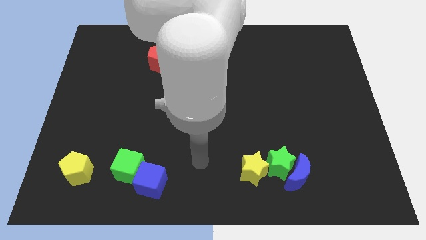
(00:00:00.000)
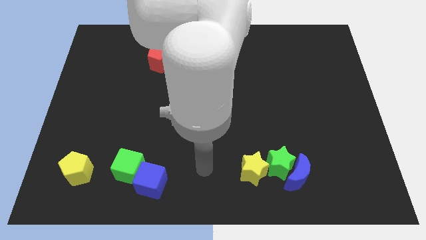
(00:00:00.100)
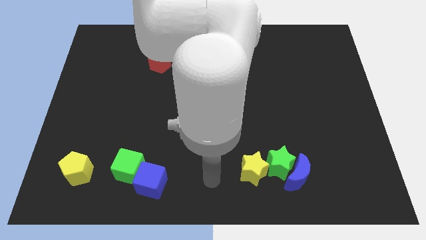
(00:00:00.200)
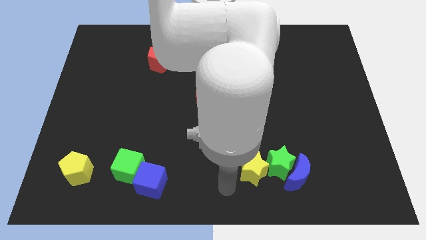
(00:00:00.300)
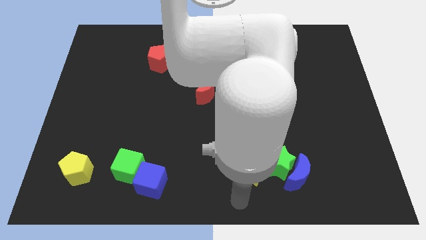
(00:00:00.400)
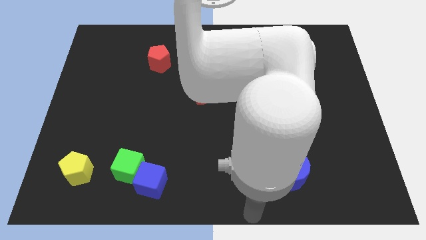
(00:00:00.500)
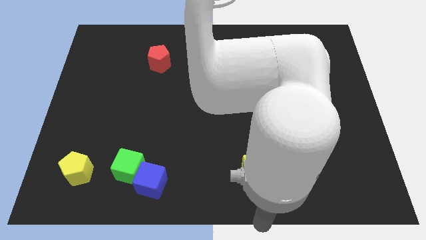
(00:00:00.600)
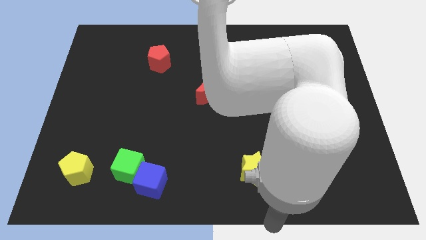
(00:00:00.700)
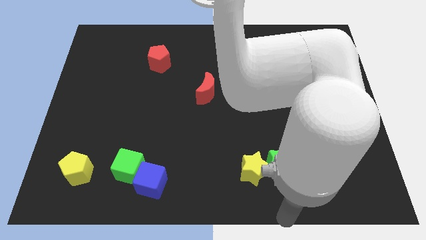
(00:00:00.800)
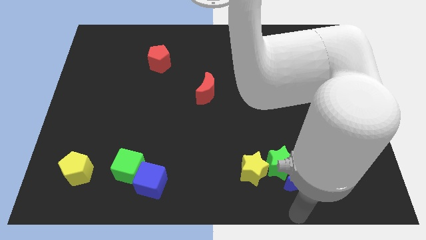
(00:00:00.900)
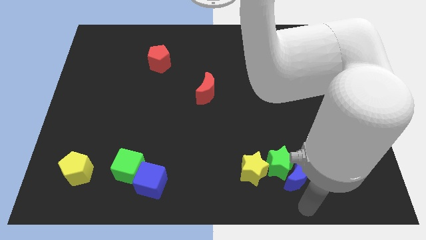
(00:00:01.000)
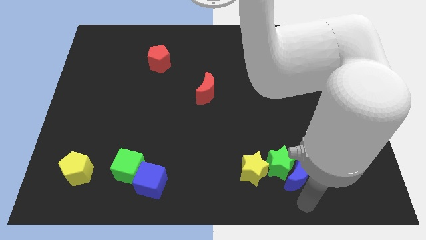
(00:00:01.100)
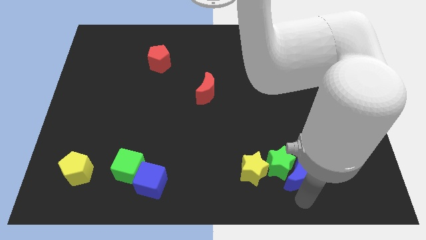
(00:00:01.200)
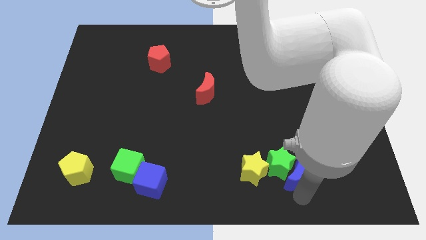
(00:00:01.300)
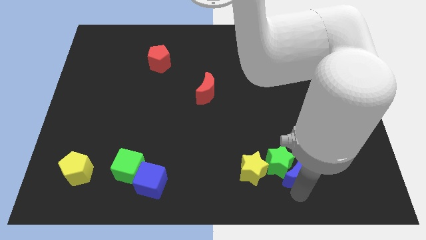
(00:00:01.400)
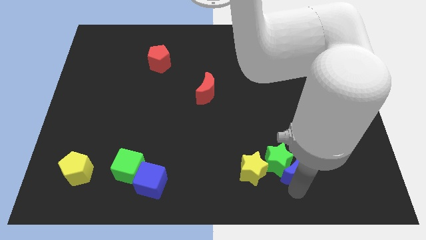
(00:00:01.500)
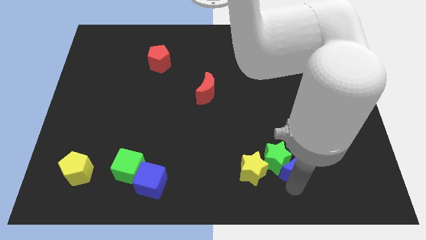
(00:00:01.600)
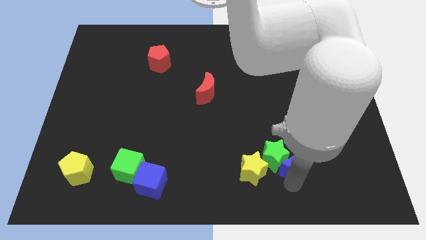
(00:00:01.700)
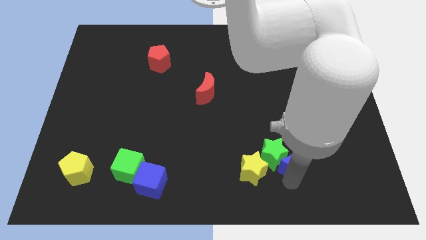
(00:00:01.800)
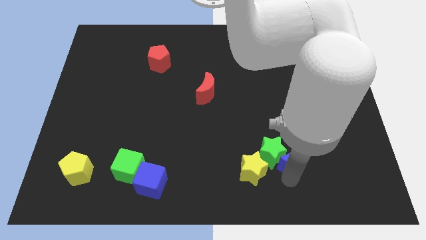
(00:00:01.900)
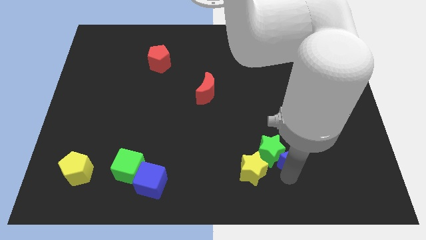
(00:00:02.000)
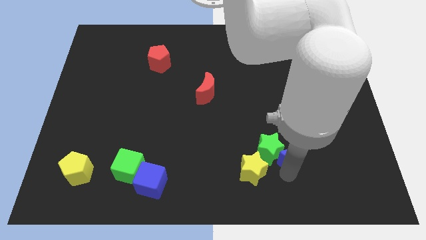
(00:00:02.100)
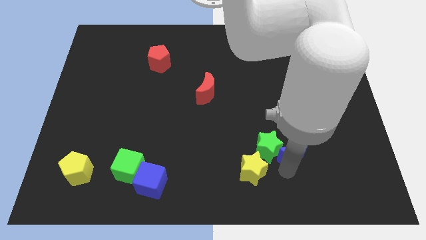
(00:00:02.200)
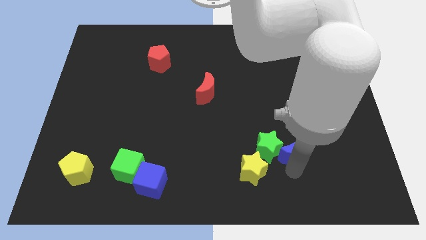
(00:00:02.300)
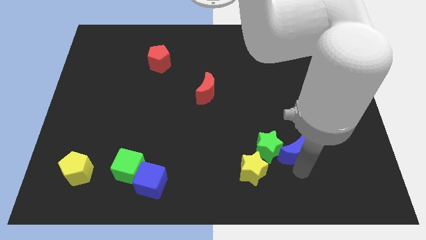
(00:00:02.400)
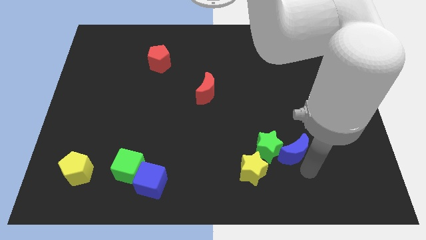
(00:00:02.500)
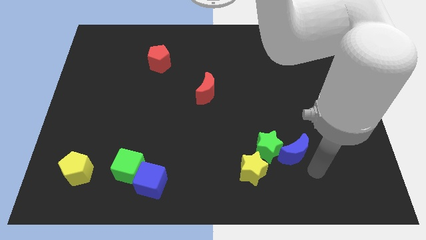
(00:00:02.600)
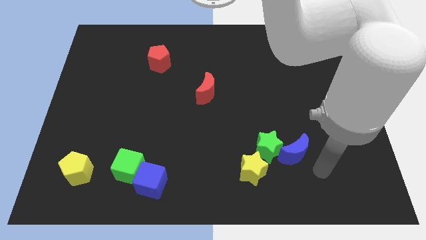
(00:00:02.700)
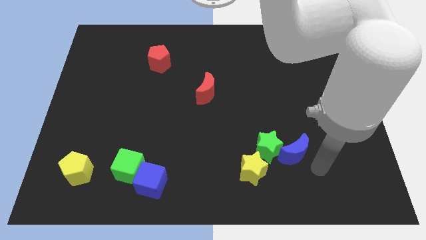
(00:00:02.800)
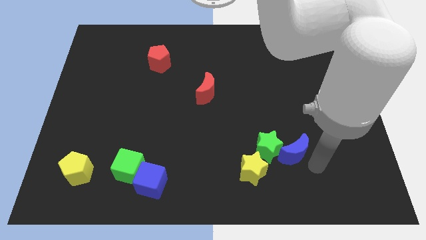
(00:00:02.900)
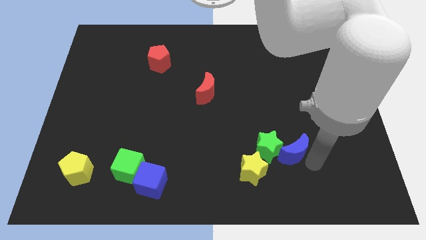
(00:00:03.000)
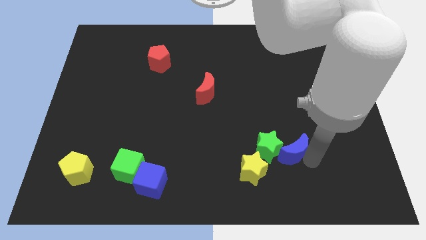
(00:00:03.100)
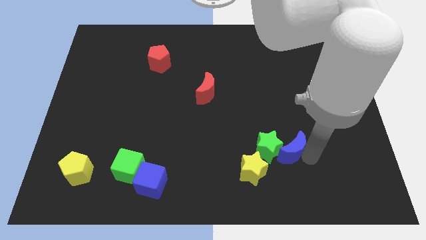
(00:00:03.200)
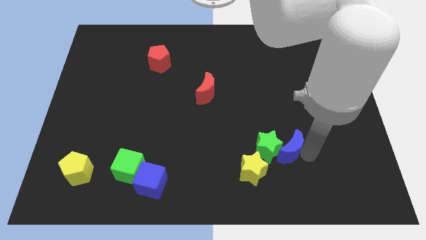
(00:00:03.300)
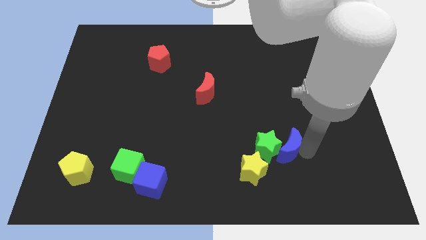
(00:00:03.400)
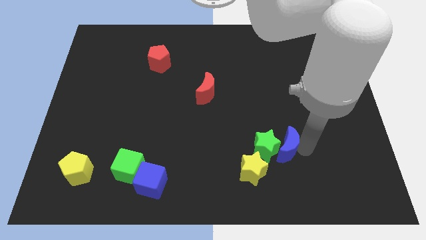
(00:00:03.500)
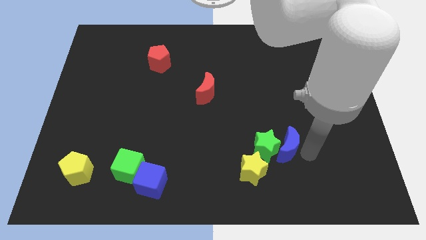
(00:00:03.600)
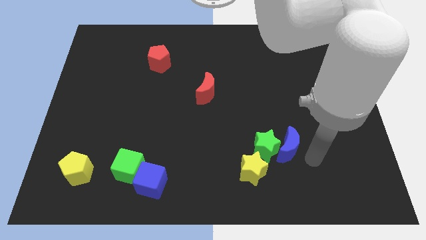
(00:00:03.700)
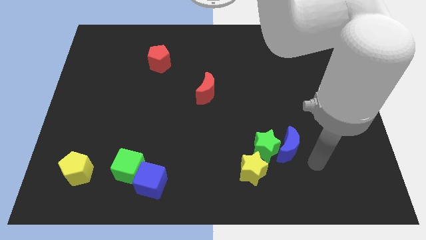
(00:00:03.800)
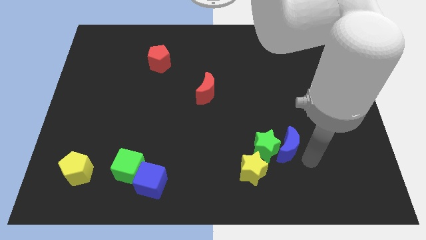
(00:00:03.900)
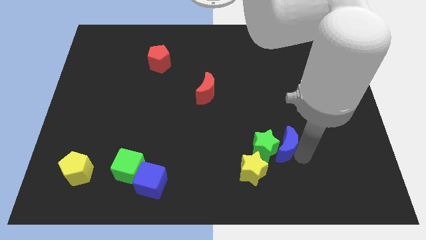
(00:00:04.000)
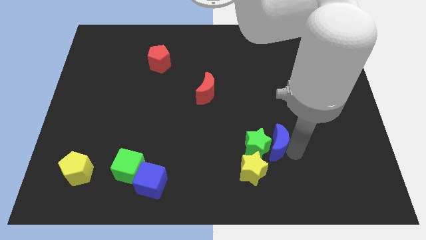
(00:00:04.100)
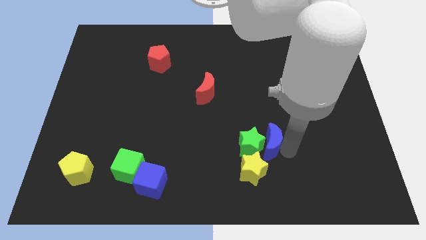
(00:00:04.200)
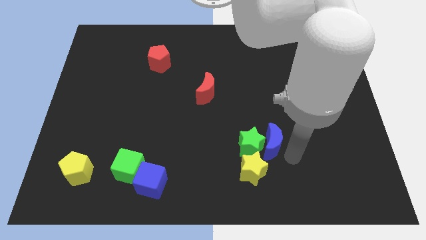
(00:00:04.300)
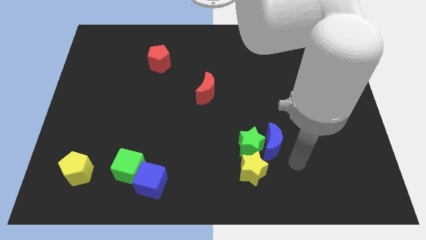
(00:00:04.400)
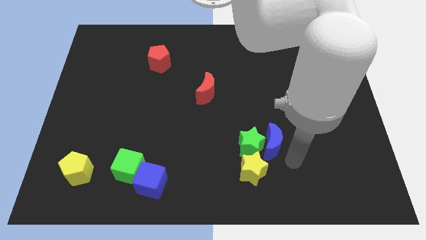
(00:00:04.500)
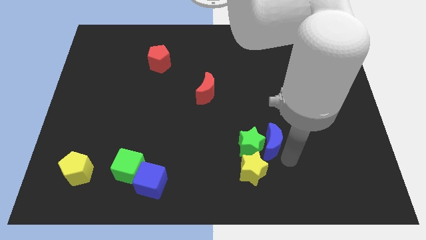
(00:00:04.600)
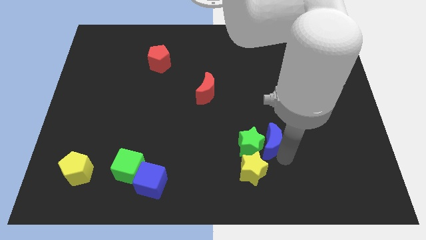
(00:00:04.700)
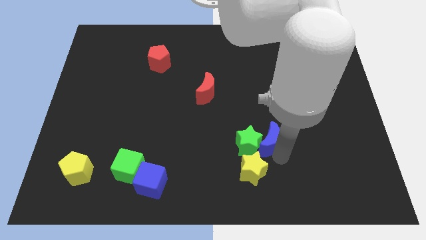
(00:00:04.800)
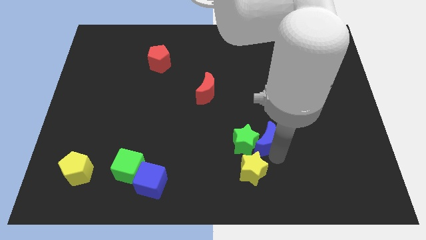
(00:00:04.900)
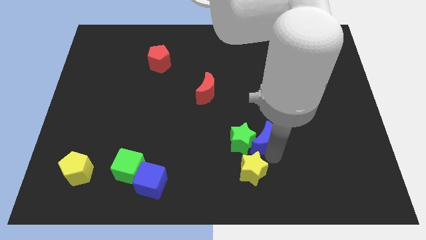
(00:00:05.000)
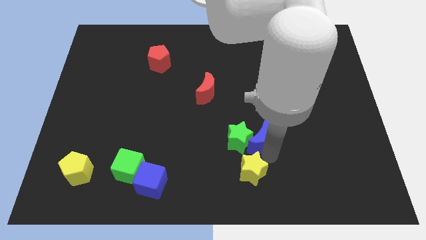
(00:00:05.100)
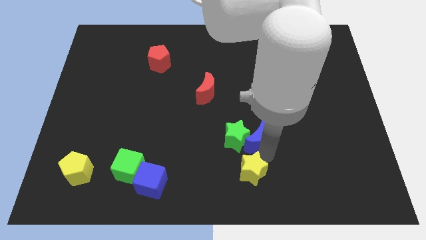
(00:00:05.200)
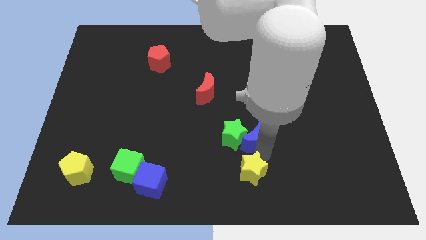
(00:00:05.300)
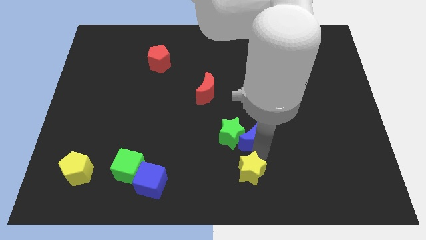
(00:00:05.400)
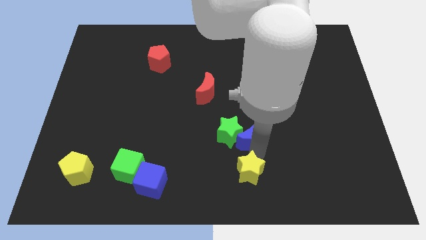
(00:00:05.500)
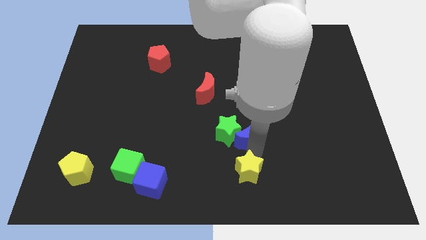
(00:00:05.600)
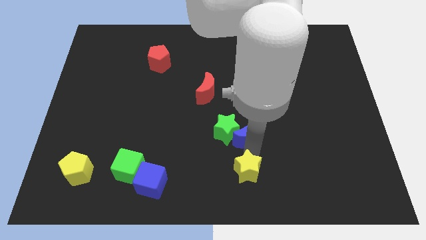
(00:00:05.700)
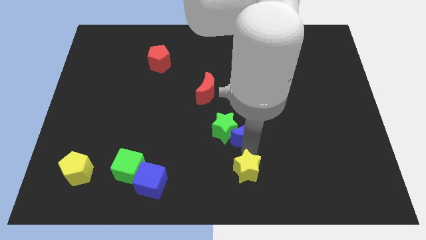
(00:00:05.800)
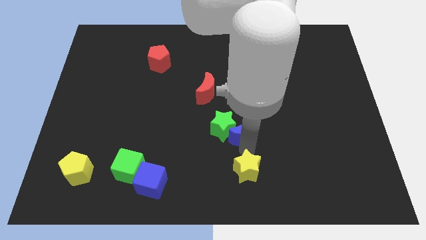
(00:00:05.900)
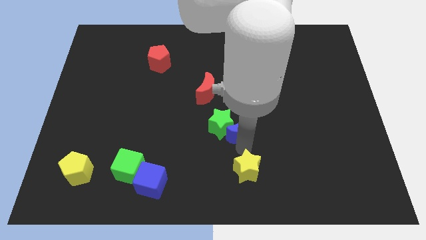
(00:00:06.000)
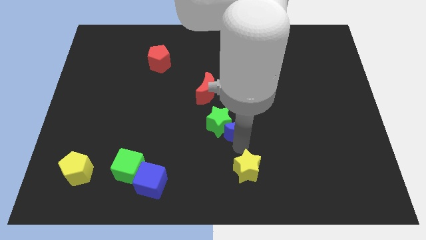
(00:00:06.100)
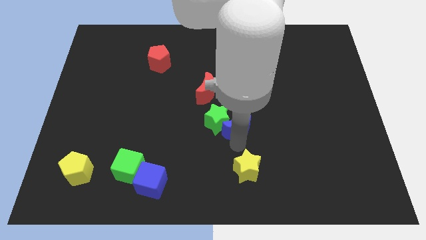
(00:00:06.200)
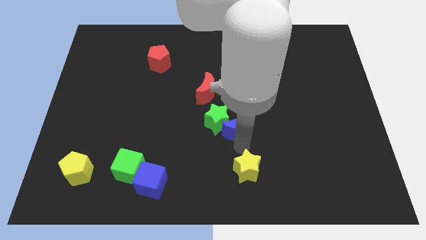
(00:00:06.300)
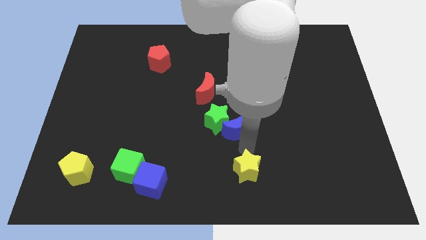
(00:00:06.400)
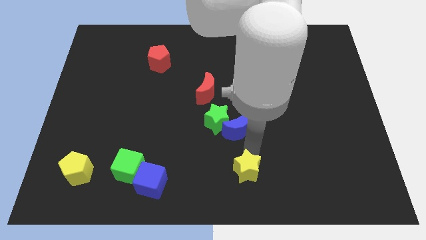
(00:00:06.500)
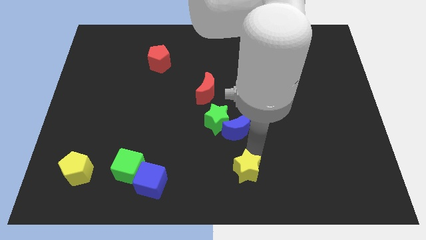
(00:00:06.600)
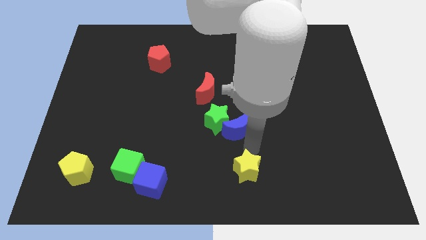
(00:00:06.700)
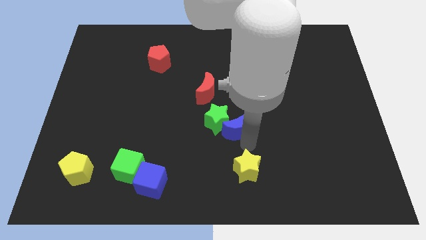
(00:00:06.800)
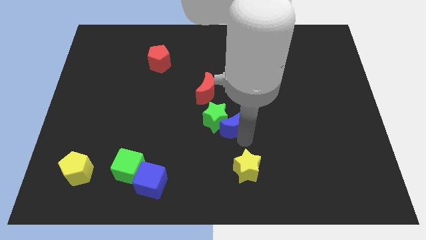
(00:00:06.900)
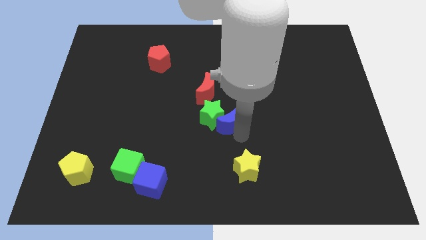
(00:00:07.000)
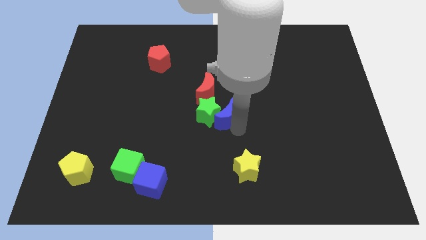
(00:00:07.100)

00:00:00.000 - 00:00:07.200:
slide the blue moon upwards and to the left diagonally

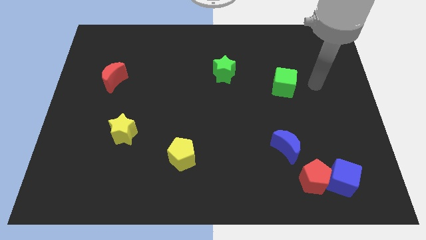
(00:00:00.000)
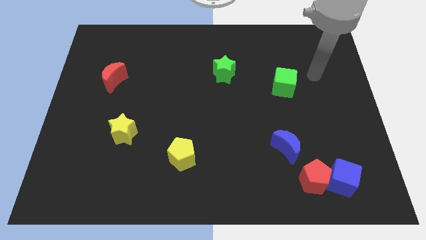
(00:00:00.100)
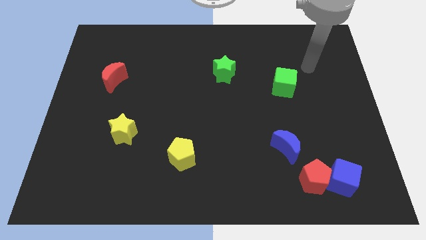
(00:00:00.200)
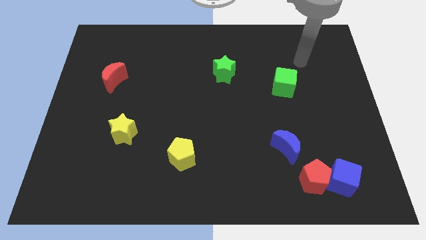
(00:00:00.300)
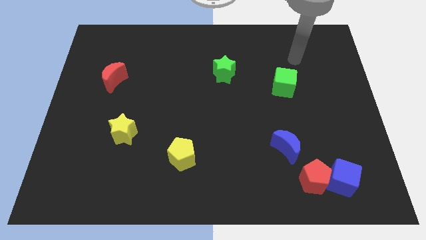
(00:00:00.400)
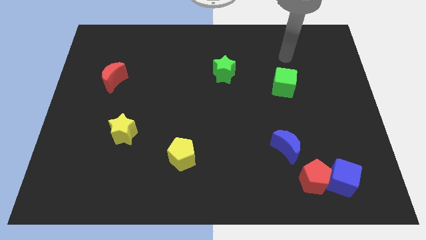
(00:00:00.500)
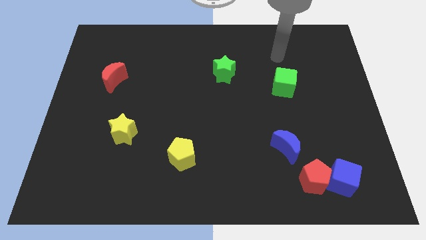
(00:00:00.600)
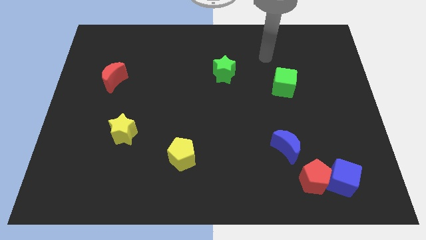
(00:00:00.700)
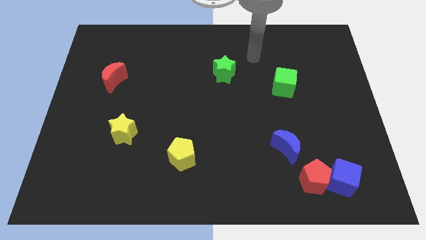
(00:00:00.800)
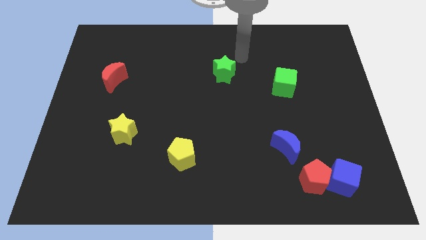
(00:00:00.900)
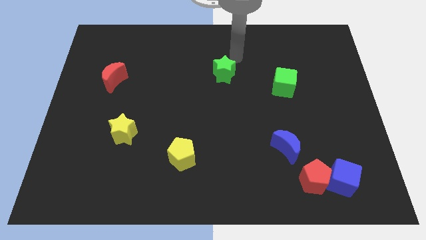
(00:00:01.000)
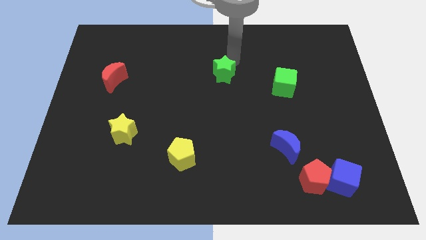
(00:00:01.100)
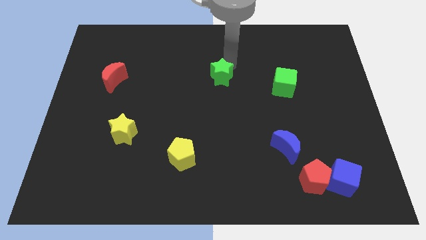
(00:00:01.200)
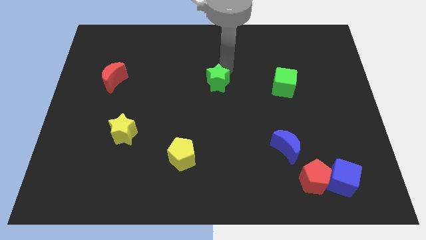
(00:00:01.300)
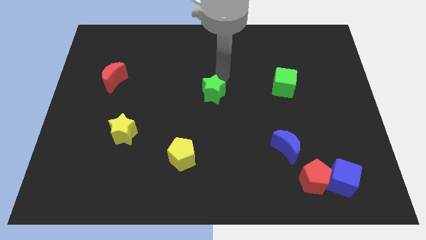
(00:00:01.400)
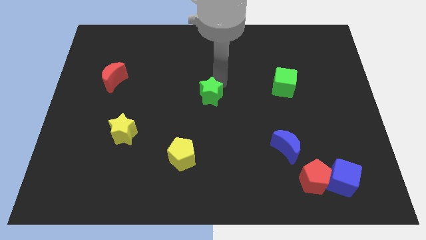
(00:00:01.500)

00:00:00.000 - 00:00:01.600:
slide the green star a bit downwards and then left
